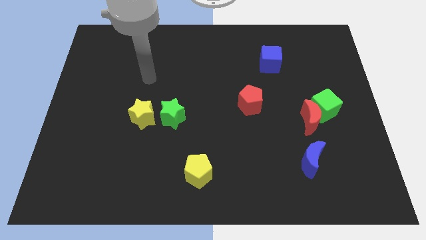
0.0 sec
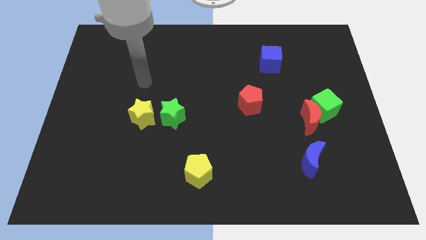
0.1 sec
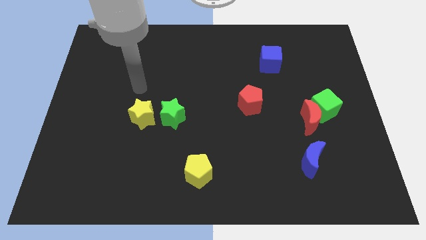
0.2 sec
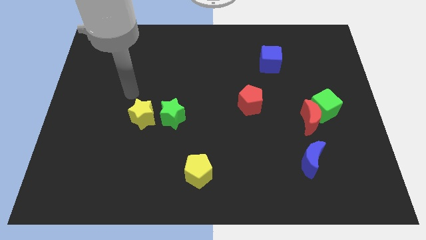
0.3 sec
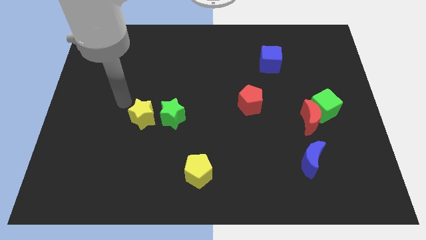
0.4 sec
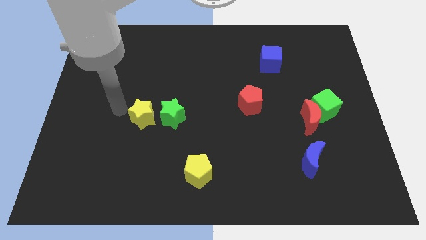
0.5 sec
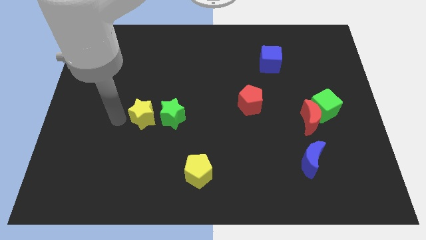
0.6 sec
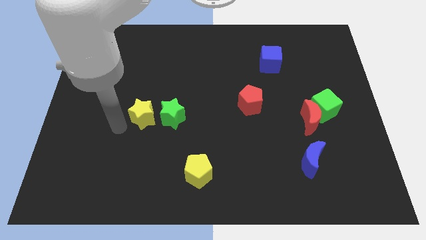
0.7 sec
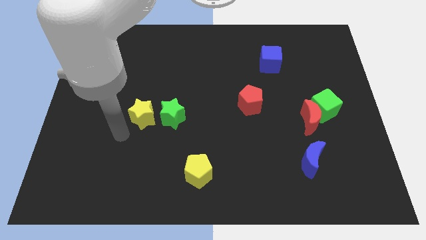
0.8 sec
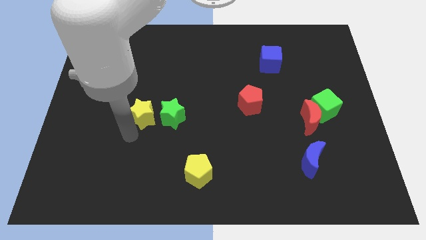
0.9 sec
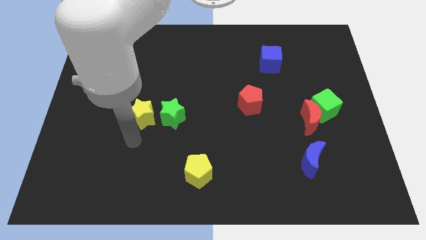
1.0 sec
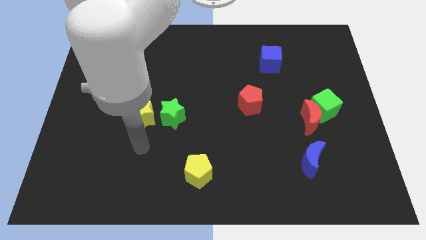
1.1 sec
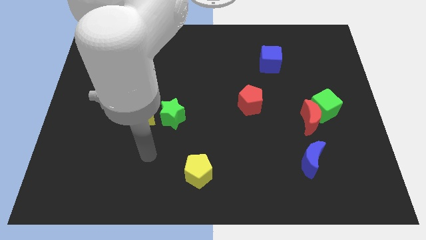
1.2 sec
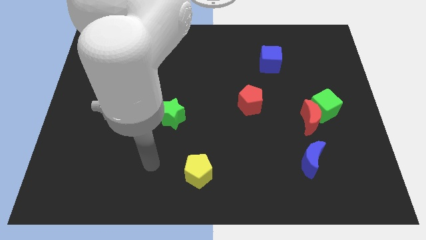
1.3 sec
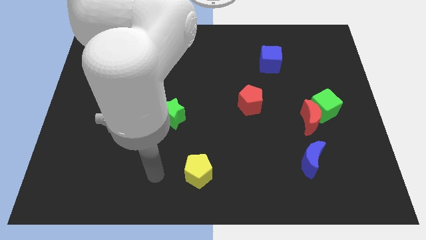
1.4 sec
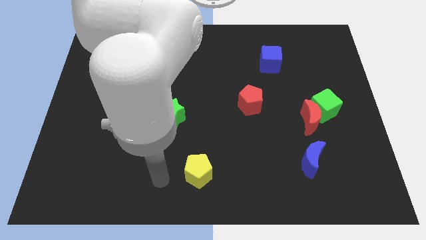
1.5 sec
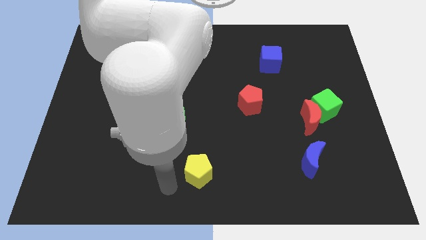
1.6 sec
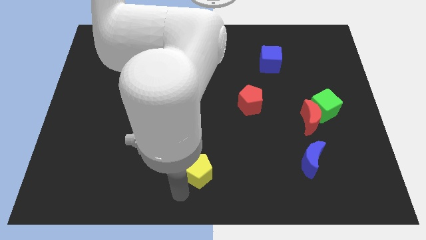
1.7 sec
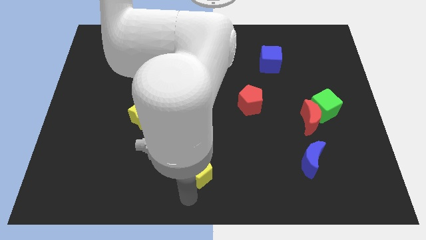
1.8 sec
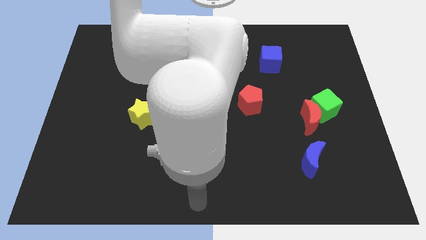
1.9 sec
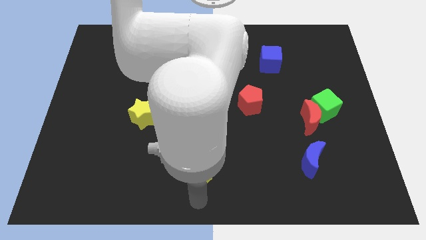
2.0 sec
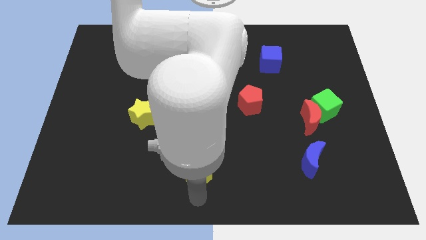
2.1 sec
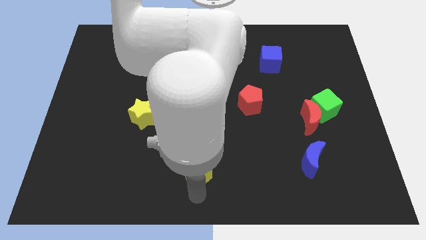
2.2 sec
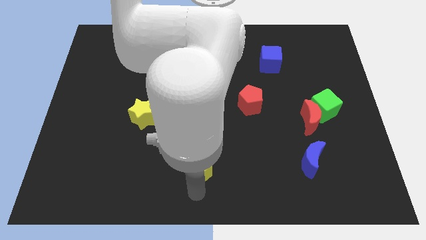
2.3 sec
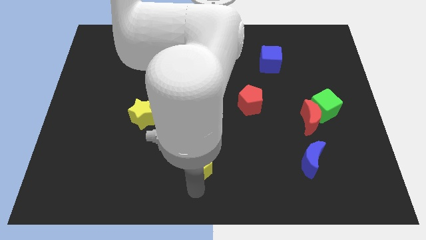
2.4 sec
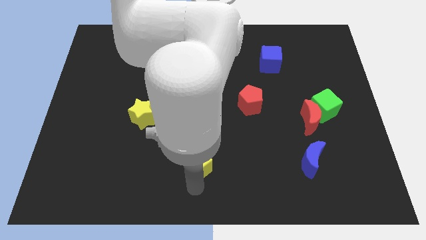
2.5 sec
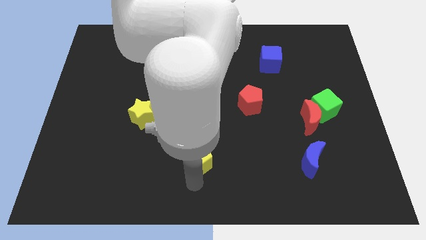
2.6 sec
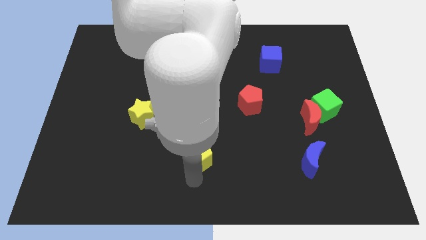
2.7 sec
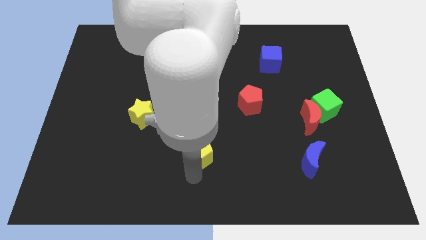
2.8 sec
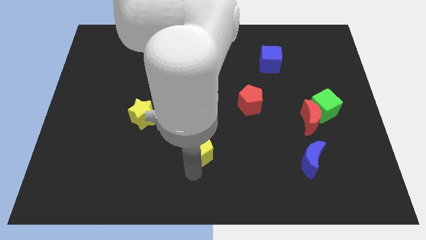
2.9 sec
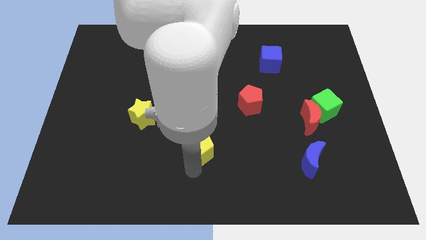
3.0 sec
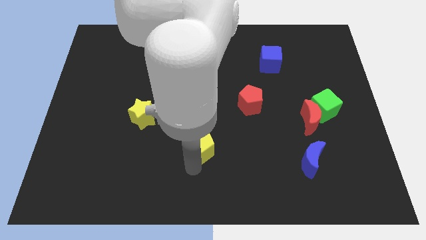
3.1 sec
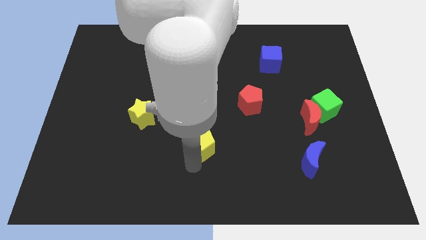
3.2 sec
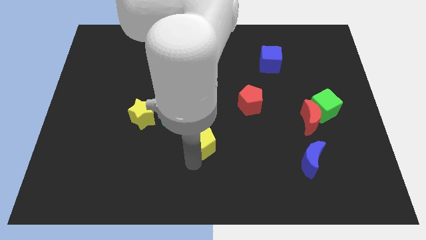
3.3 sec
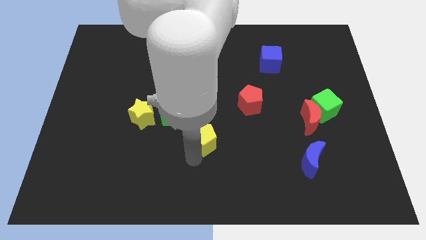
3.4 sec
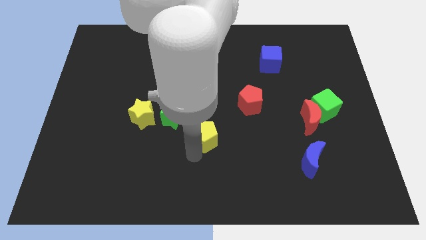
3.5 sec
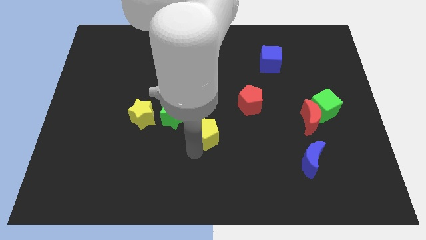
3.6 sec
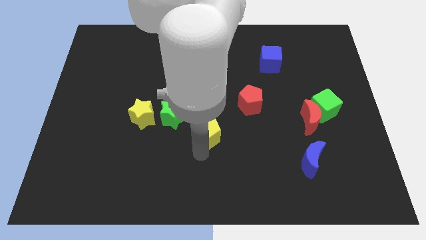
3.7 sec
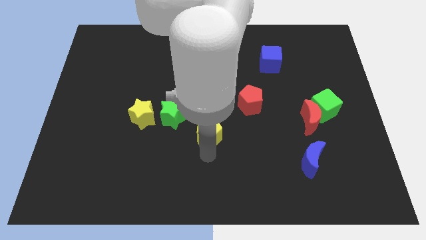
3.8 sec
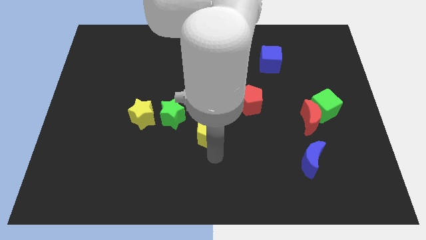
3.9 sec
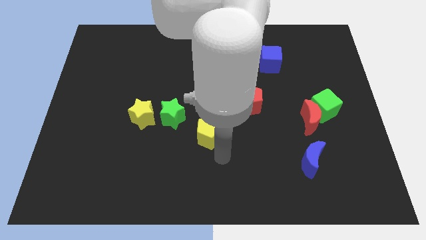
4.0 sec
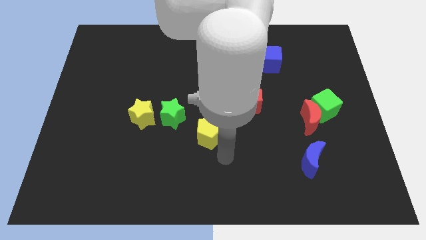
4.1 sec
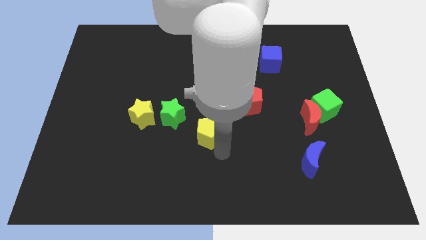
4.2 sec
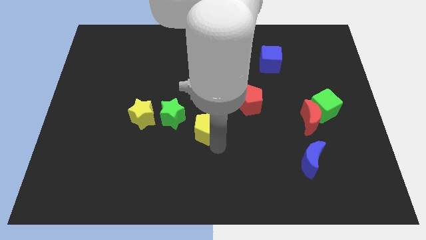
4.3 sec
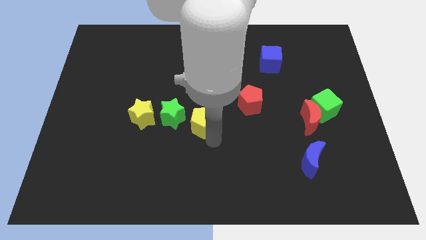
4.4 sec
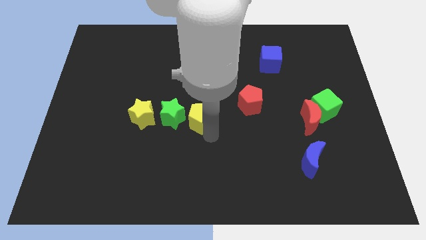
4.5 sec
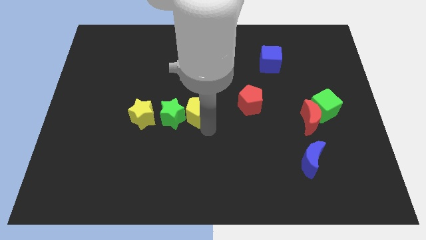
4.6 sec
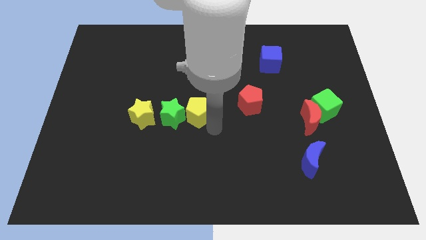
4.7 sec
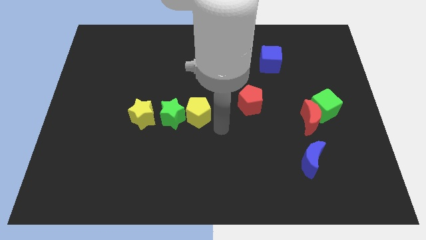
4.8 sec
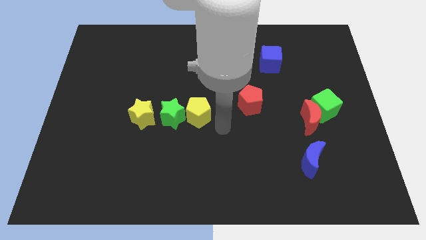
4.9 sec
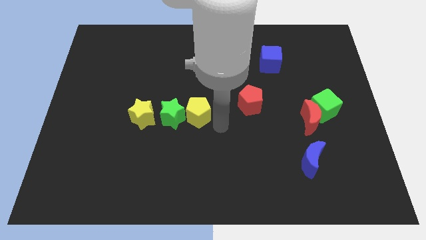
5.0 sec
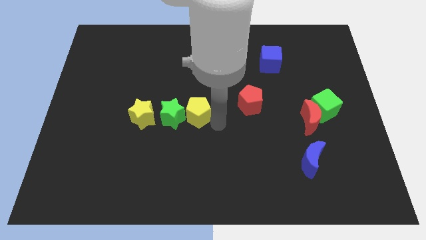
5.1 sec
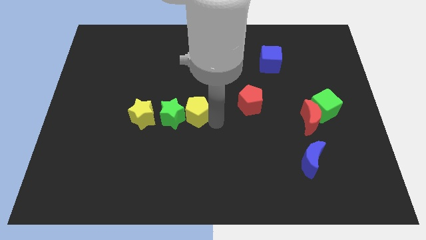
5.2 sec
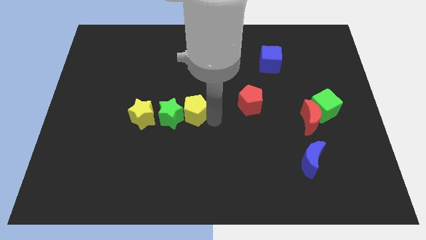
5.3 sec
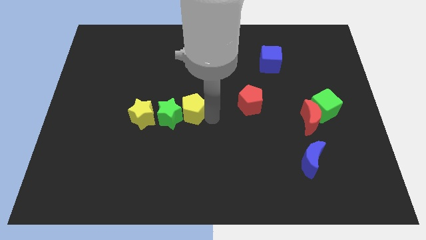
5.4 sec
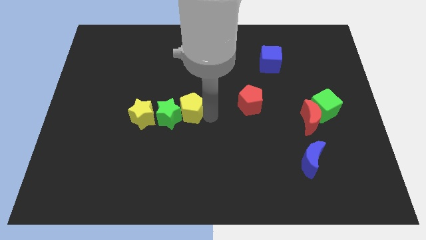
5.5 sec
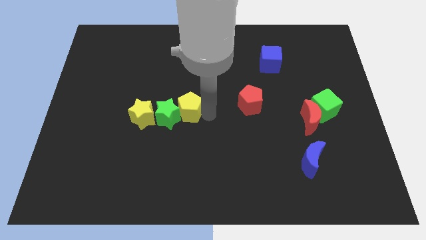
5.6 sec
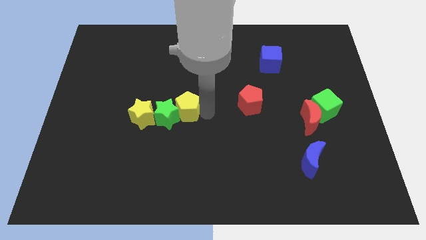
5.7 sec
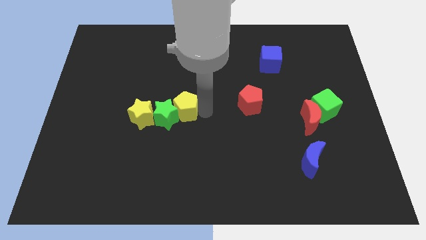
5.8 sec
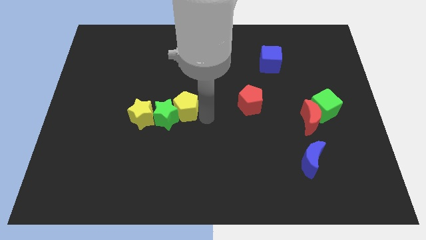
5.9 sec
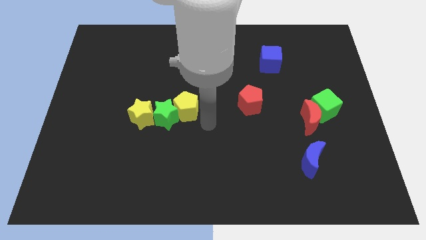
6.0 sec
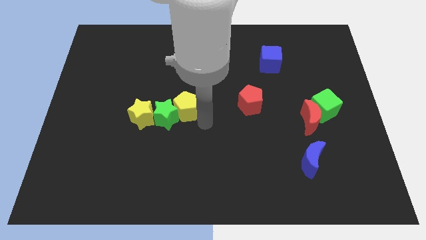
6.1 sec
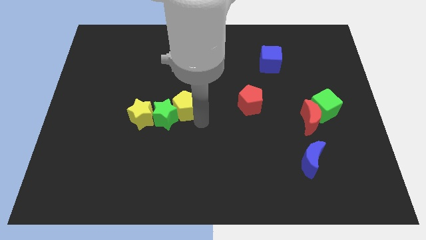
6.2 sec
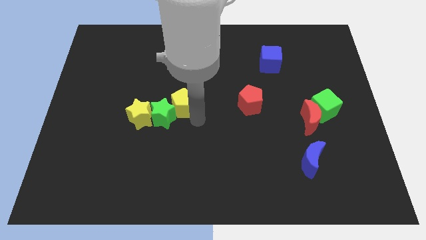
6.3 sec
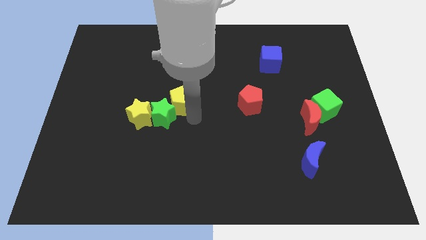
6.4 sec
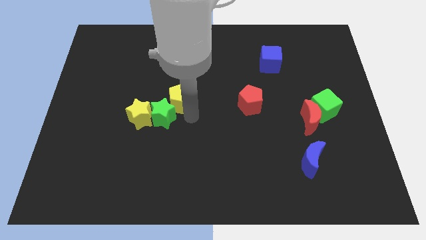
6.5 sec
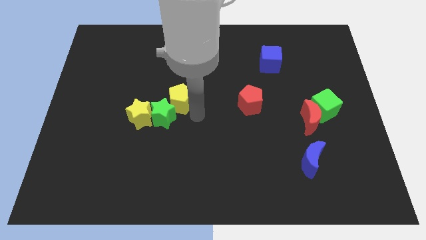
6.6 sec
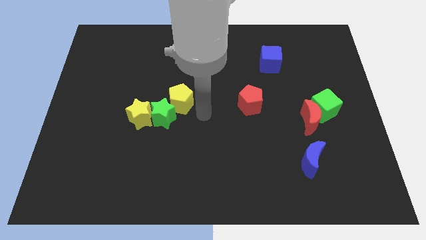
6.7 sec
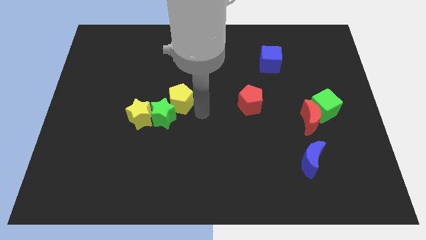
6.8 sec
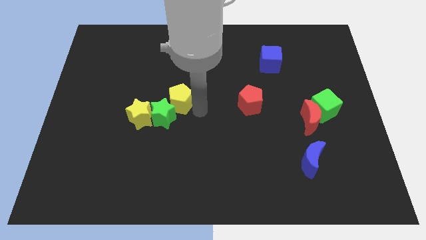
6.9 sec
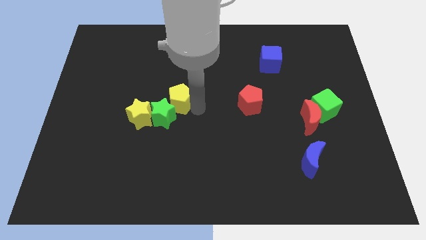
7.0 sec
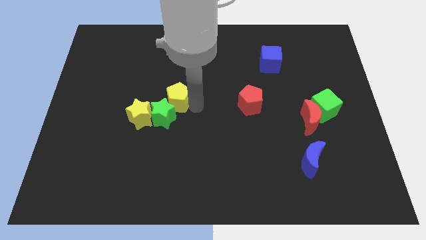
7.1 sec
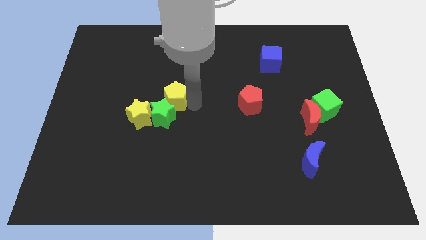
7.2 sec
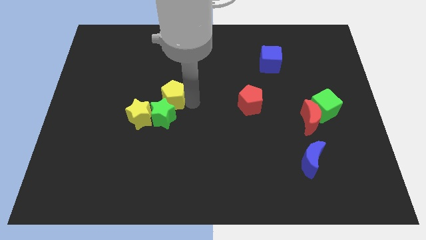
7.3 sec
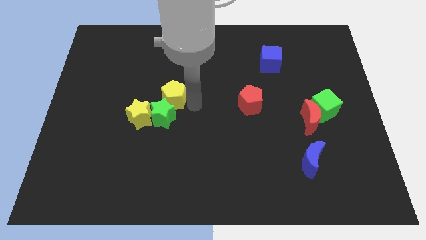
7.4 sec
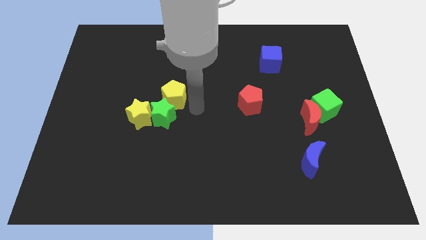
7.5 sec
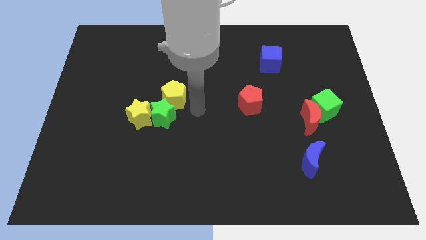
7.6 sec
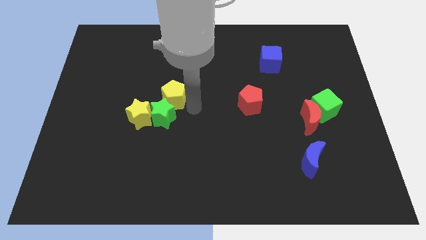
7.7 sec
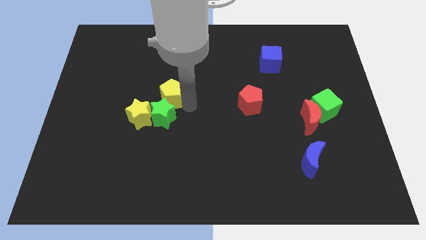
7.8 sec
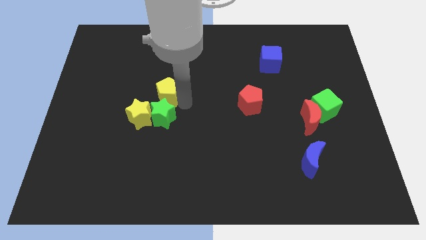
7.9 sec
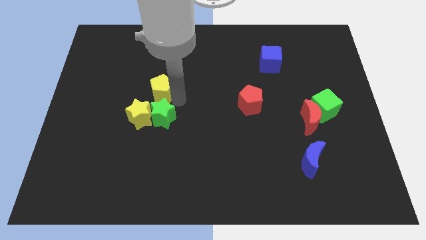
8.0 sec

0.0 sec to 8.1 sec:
move the yellow pentagon to the top of the yellow star
